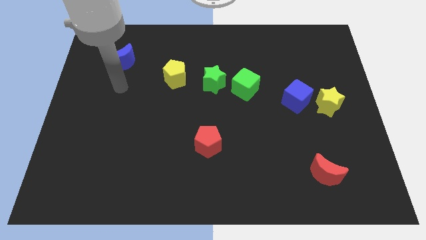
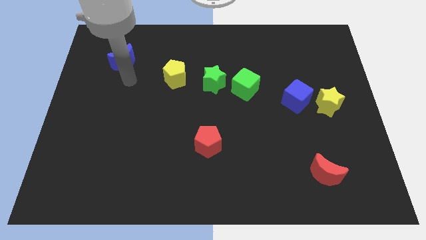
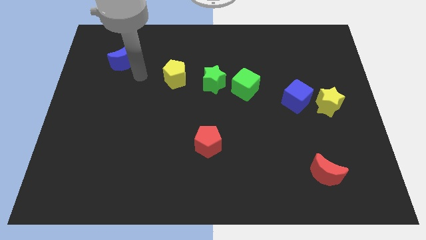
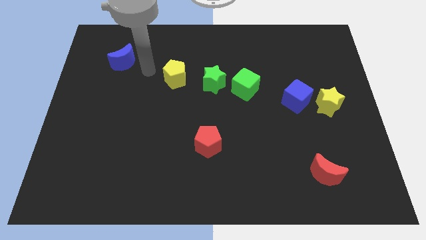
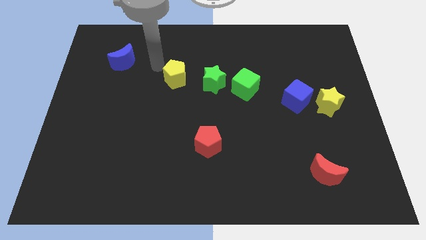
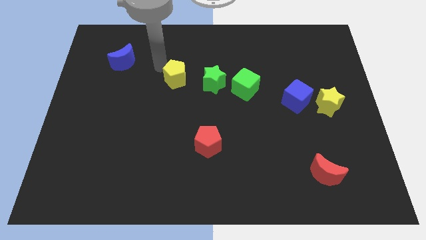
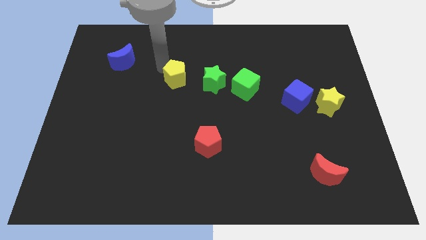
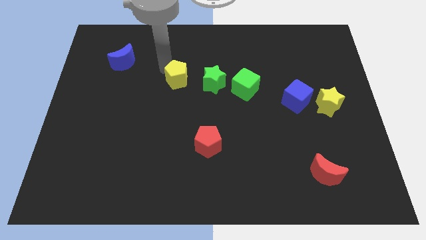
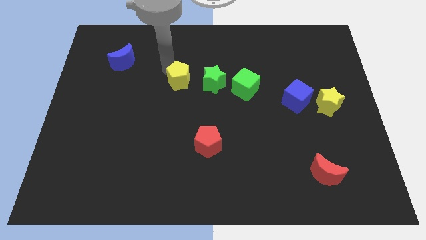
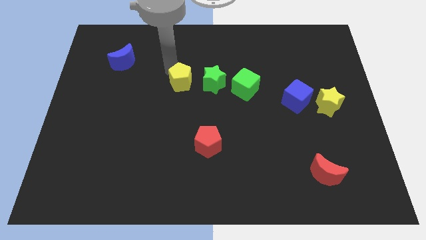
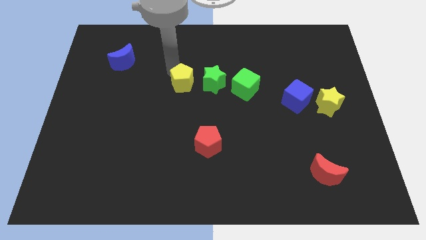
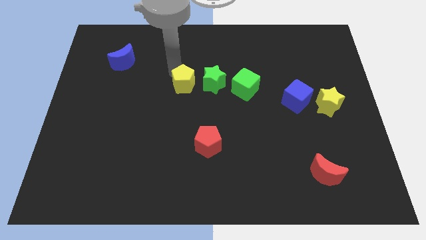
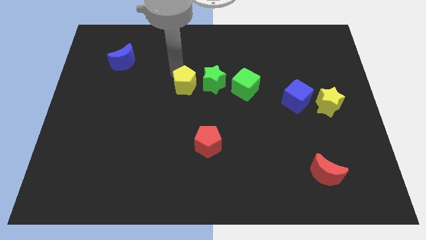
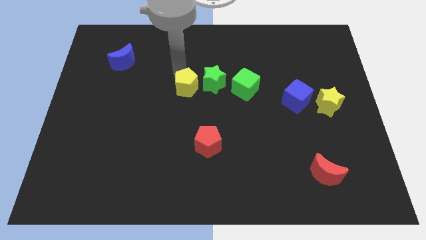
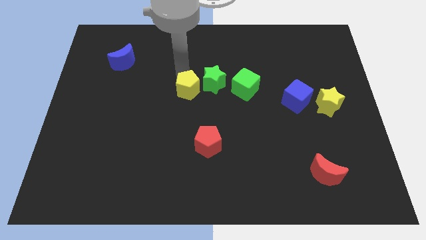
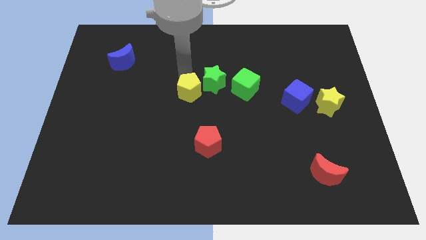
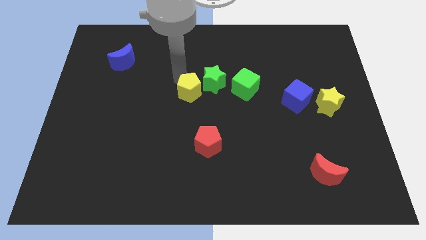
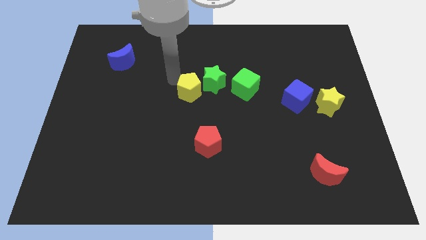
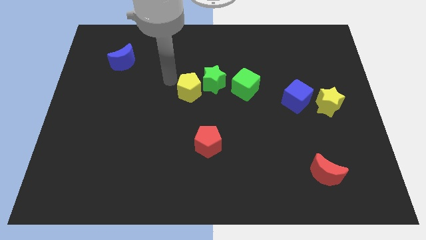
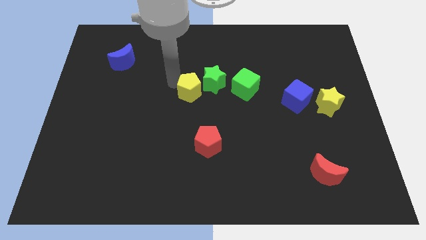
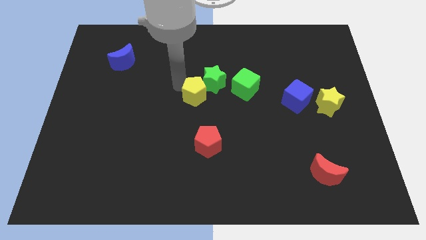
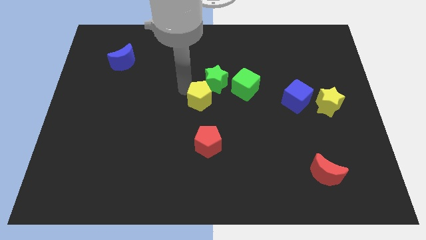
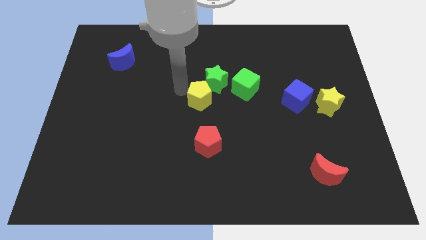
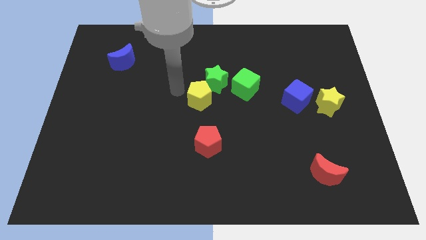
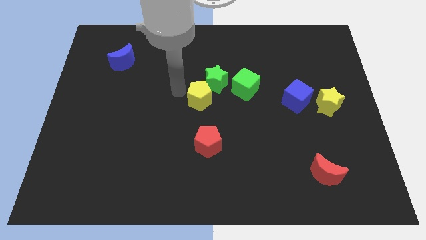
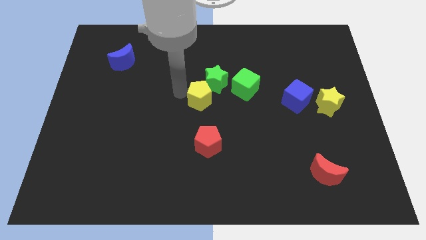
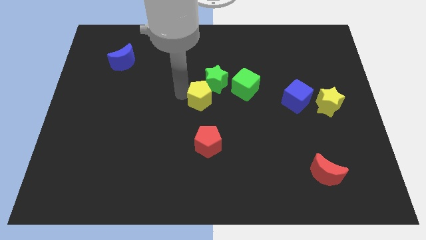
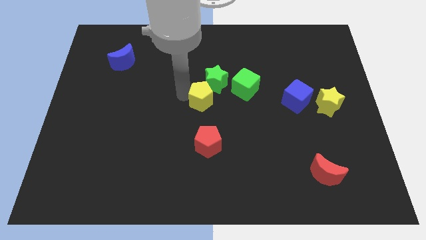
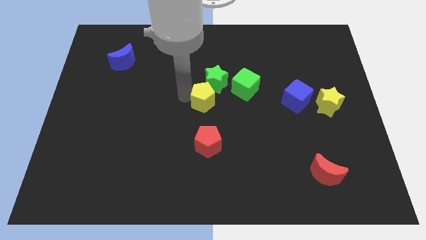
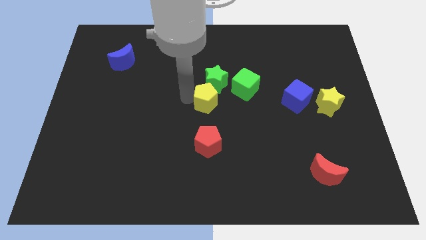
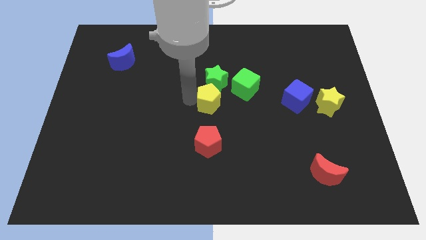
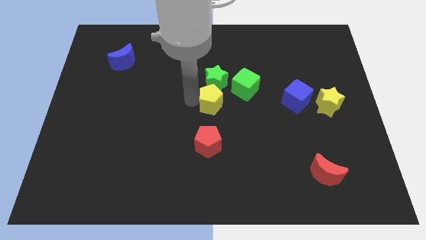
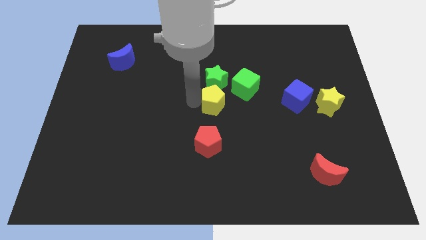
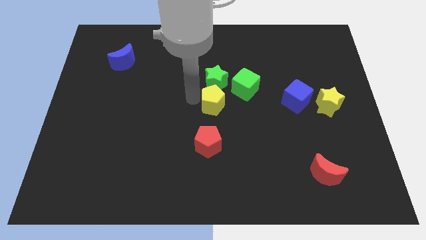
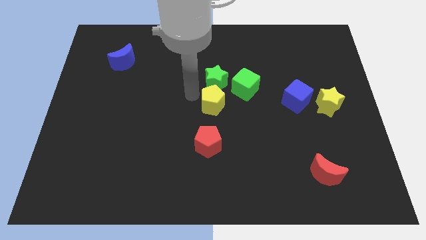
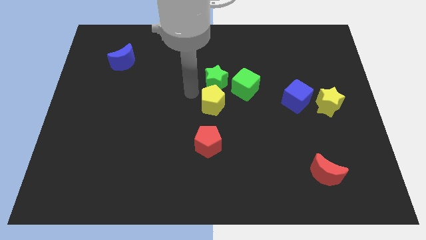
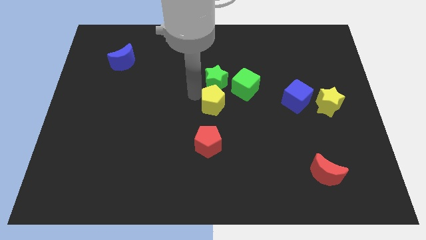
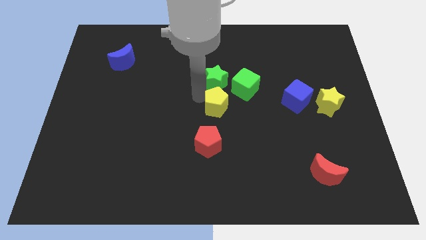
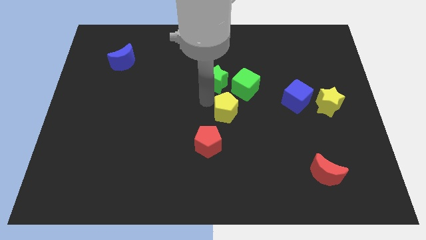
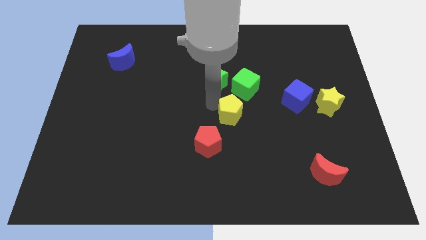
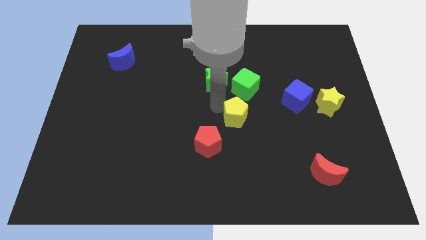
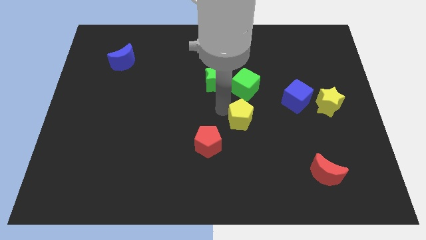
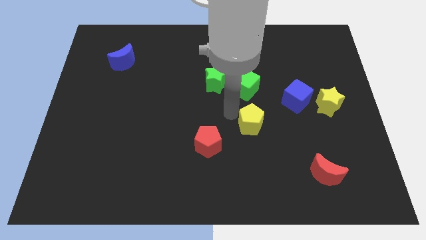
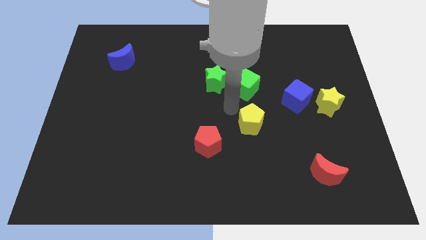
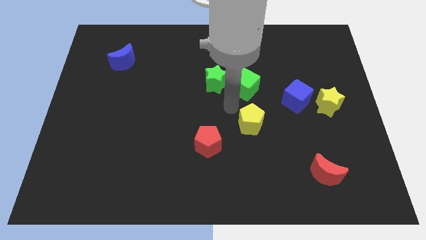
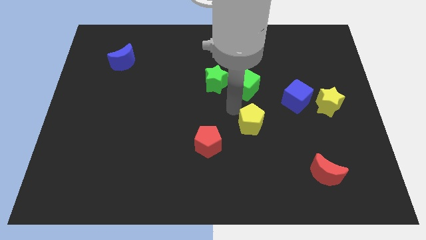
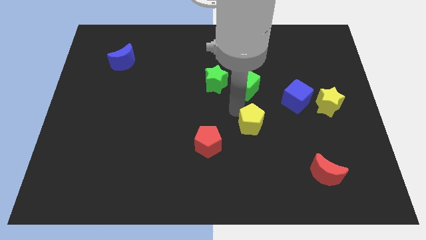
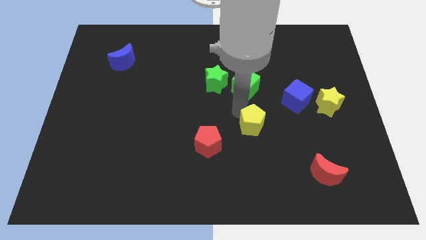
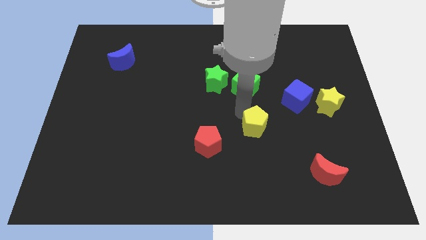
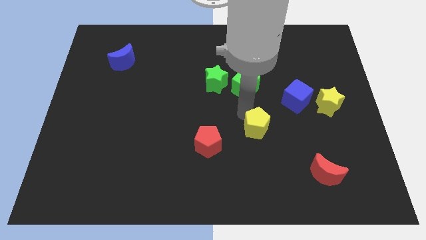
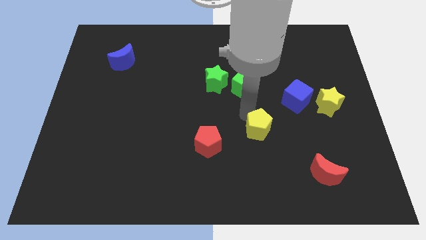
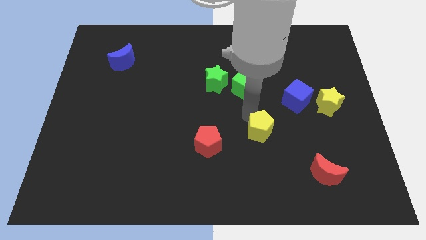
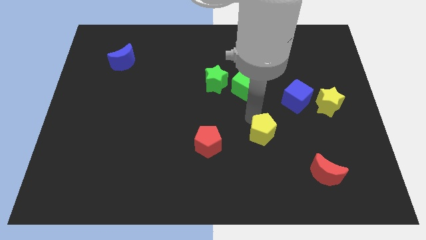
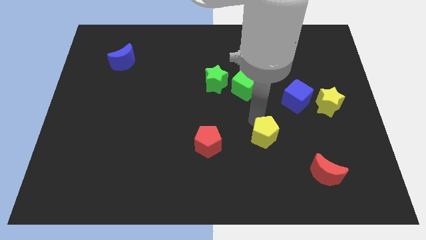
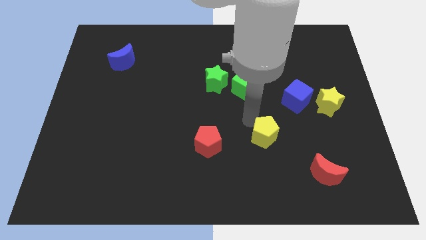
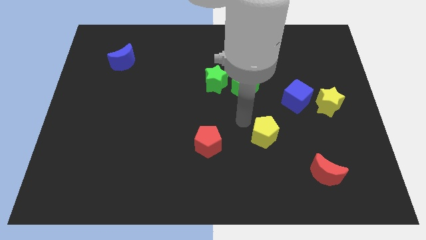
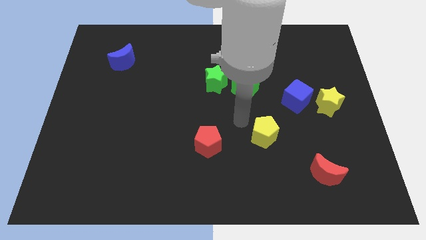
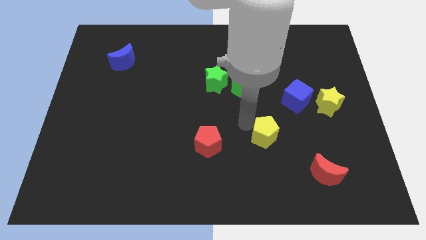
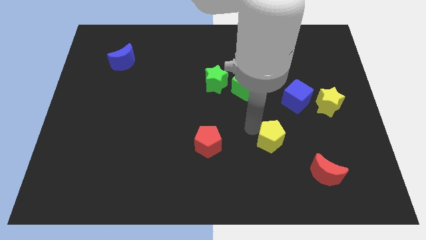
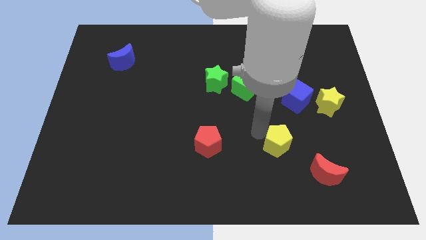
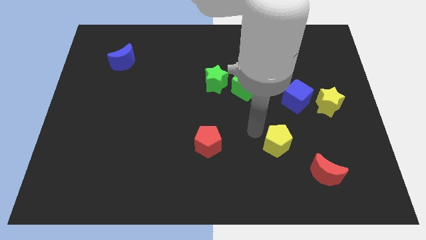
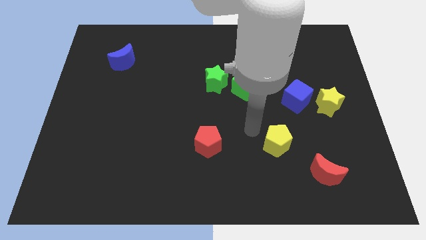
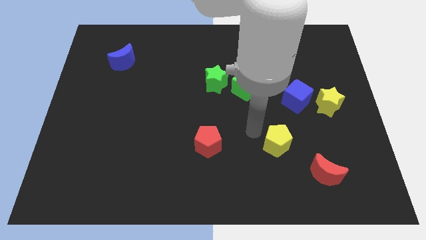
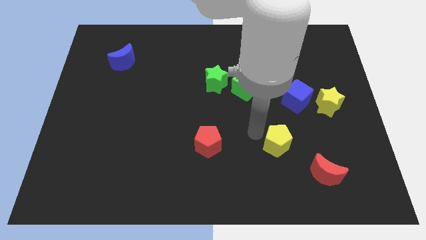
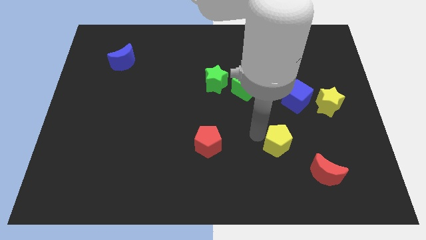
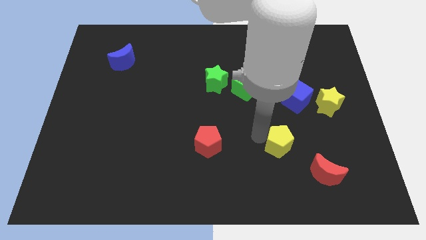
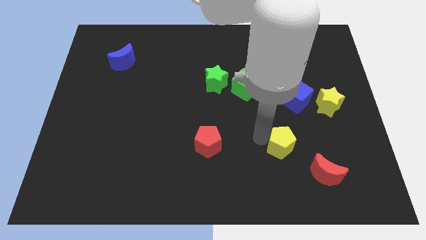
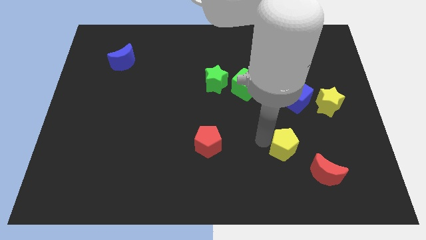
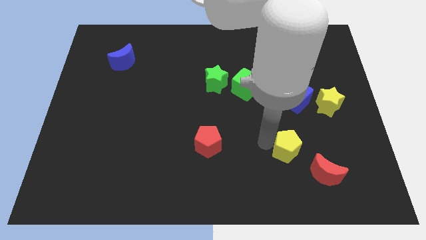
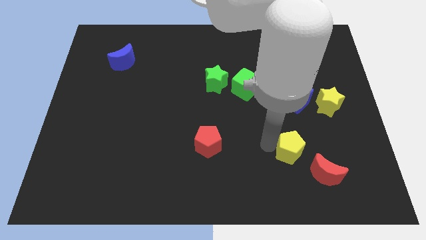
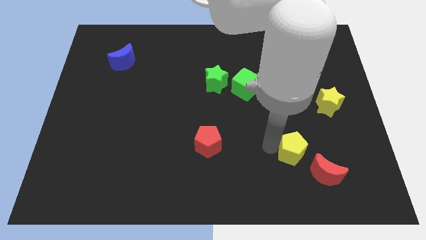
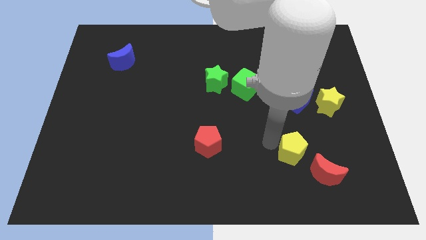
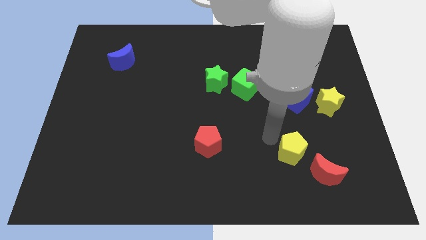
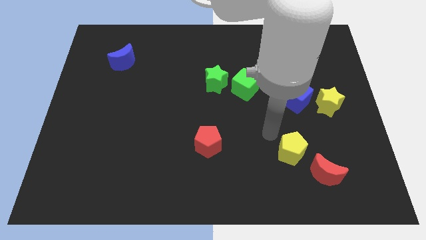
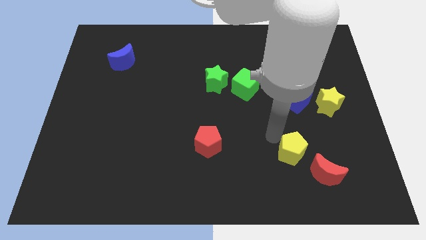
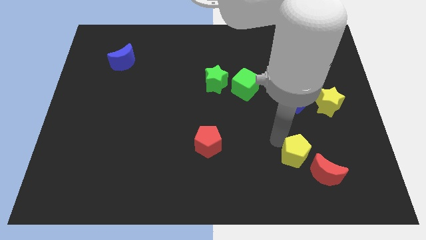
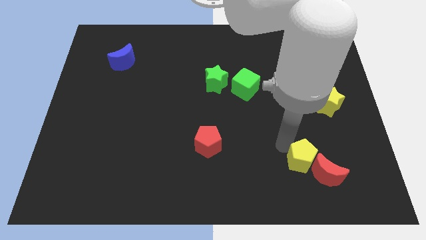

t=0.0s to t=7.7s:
move the yellow pentagon next to the red moon

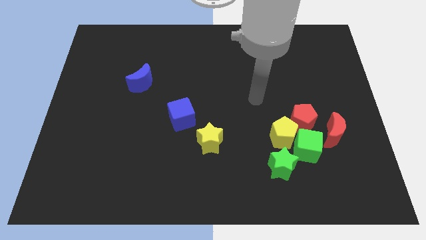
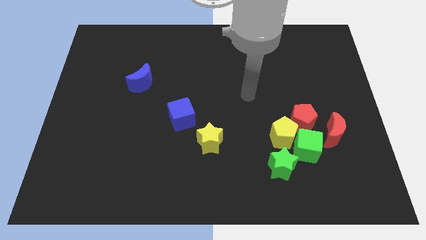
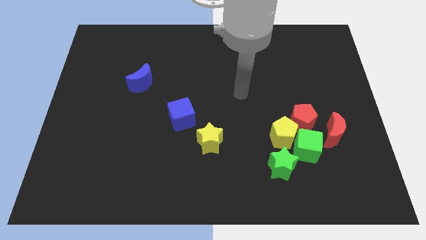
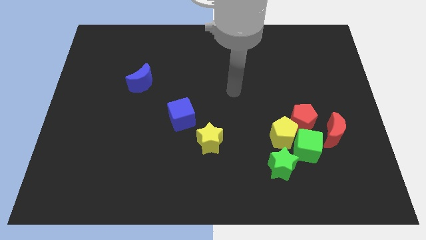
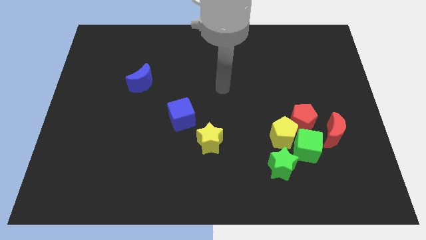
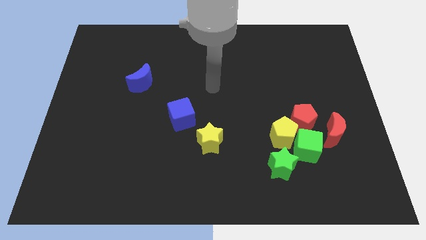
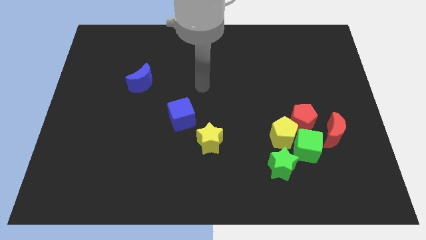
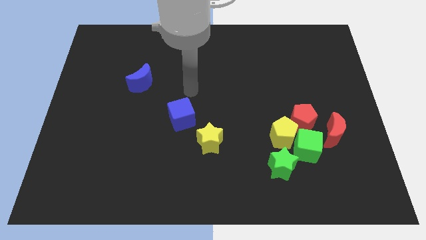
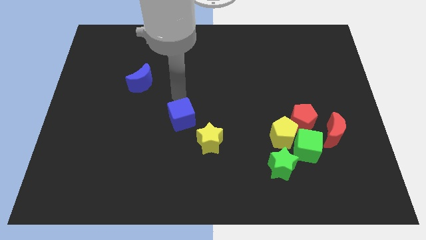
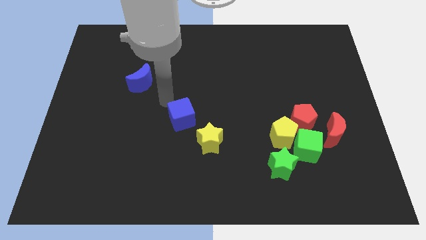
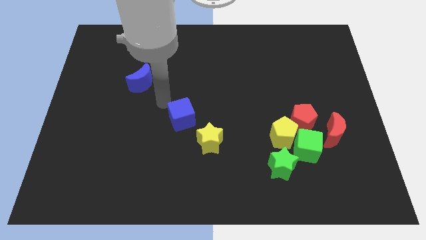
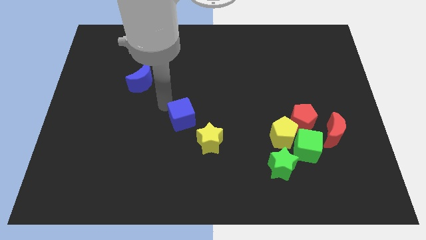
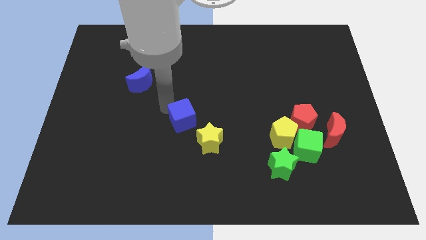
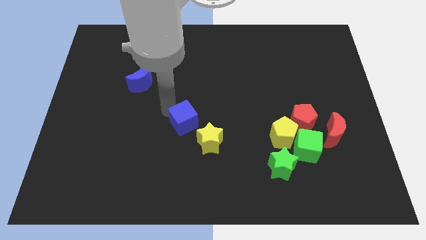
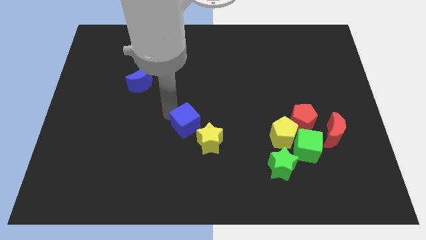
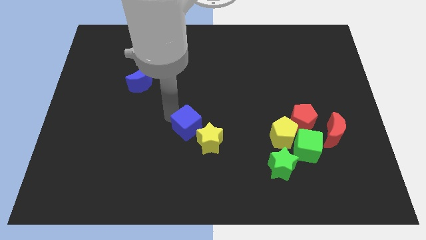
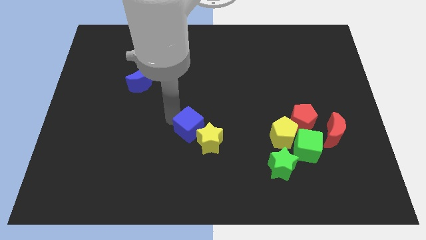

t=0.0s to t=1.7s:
move the blue cube towards the yellow star
